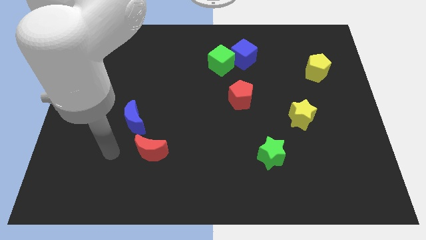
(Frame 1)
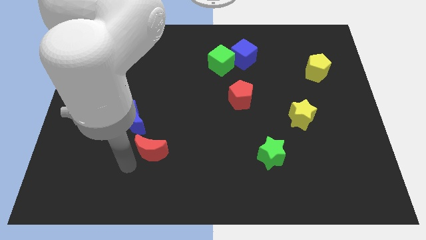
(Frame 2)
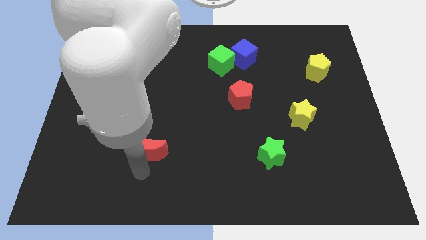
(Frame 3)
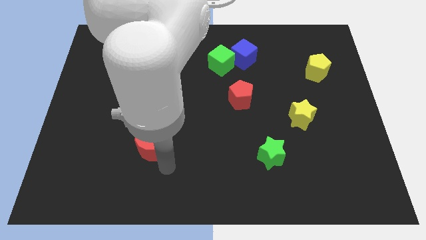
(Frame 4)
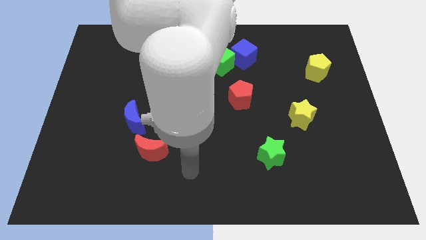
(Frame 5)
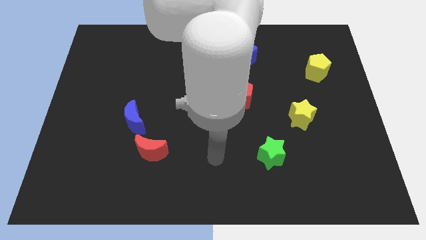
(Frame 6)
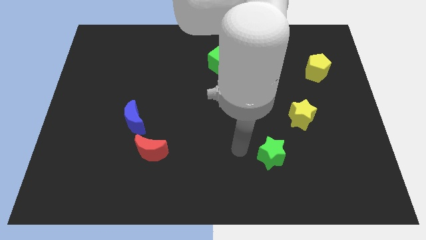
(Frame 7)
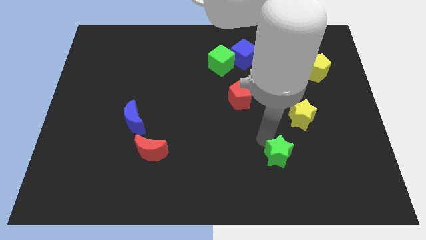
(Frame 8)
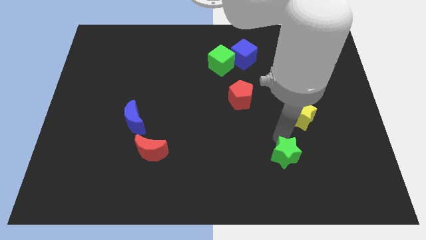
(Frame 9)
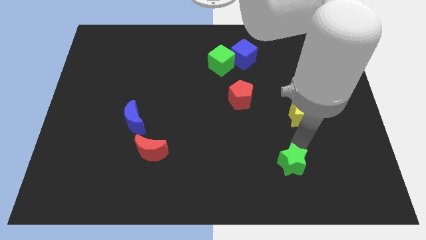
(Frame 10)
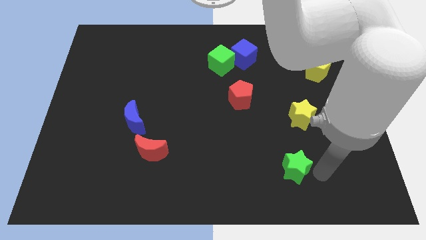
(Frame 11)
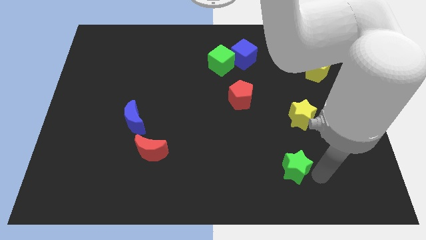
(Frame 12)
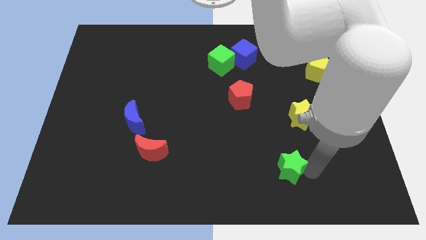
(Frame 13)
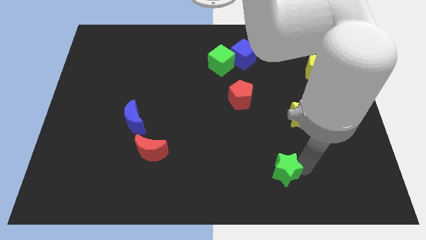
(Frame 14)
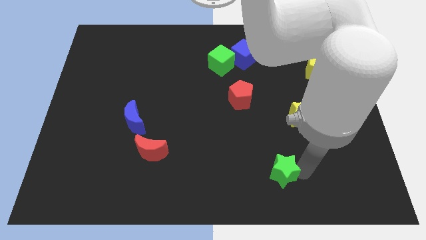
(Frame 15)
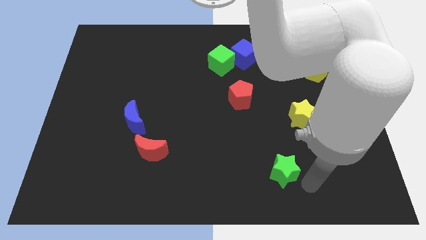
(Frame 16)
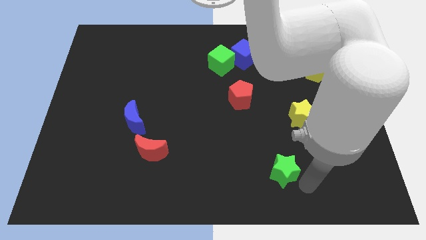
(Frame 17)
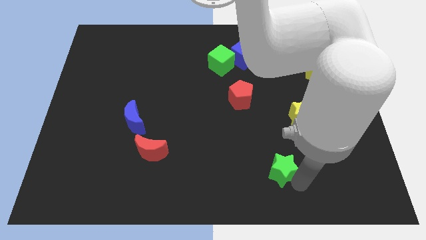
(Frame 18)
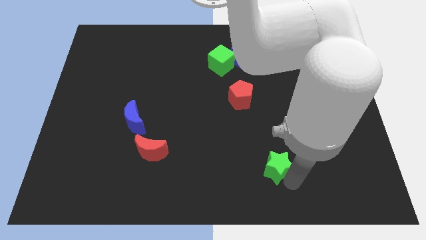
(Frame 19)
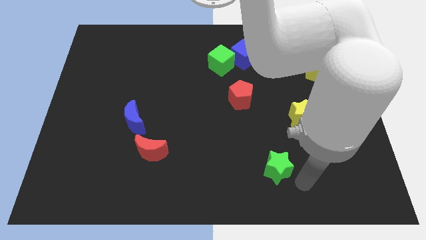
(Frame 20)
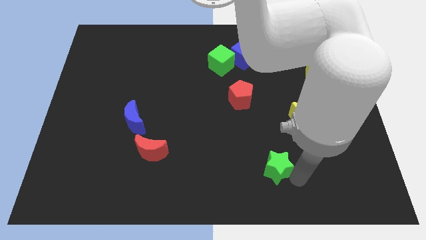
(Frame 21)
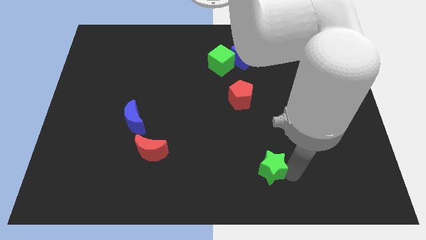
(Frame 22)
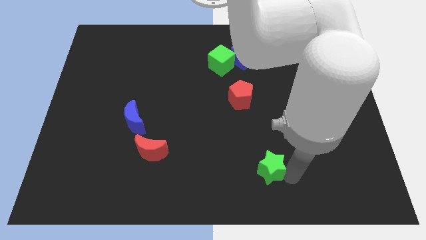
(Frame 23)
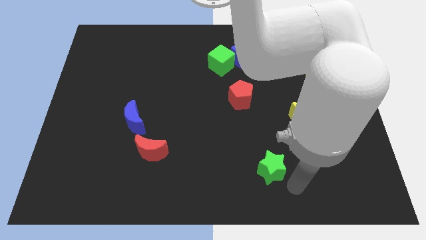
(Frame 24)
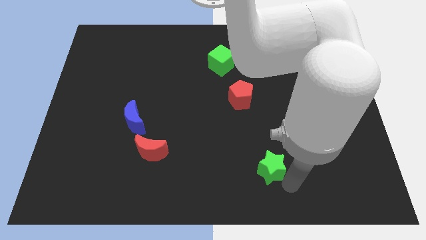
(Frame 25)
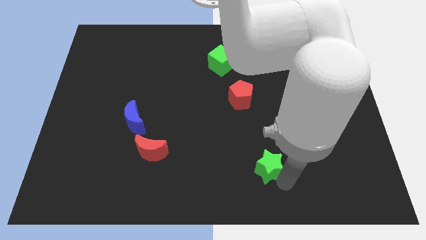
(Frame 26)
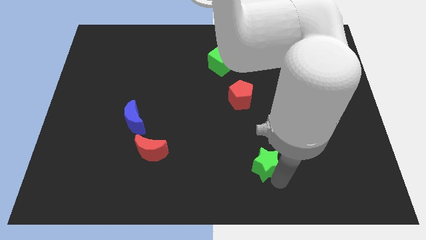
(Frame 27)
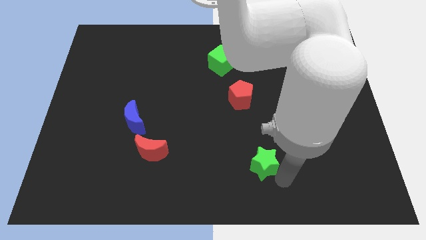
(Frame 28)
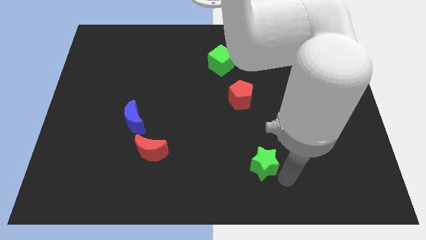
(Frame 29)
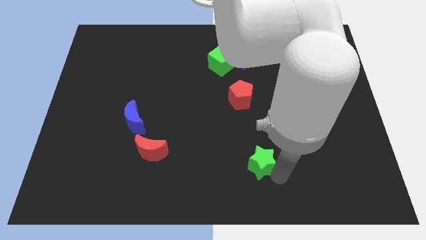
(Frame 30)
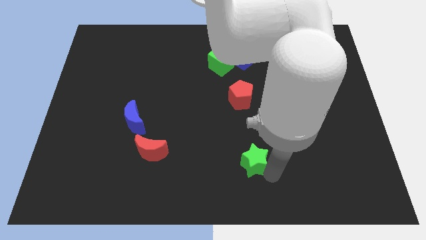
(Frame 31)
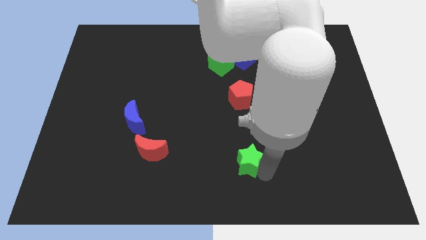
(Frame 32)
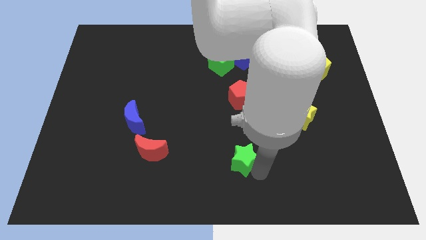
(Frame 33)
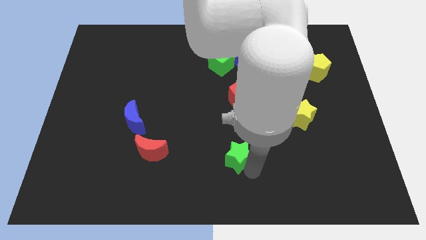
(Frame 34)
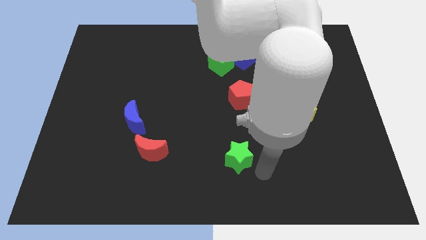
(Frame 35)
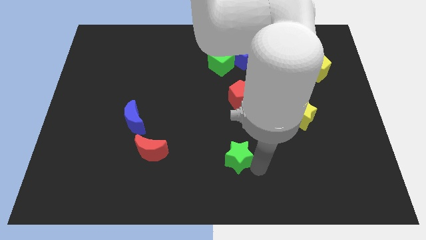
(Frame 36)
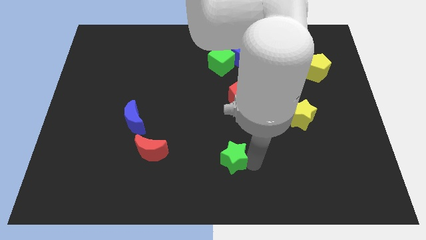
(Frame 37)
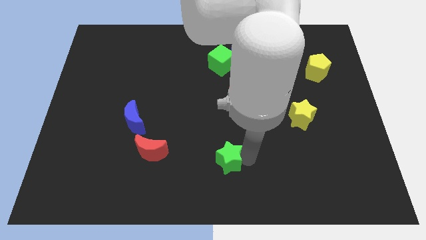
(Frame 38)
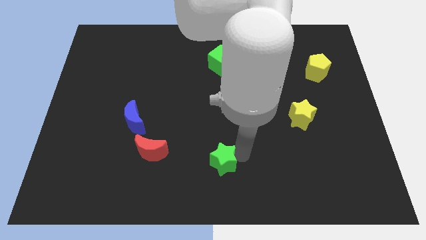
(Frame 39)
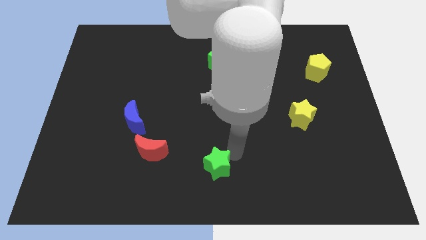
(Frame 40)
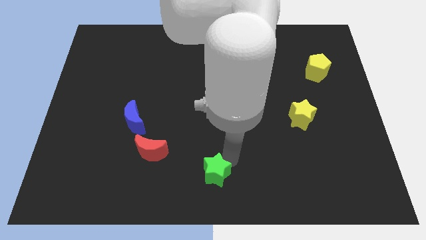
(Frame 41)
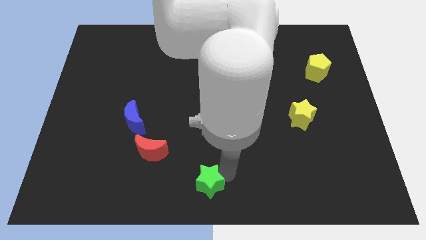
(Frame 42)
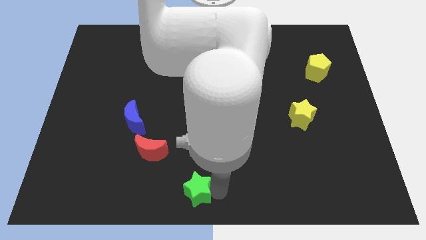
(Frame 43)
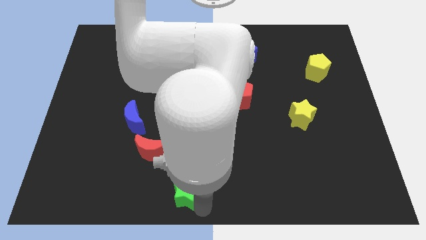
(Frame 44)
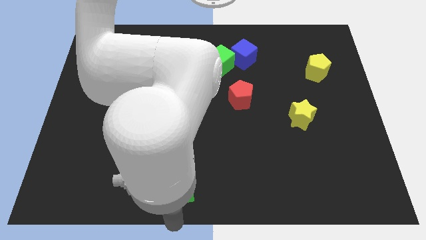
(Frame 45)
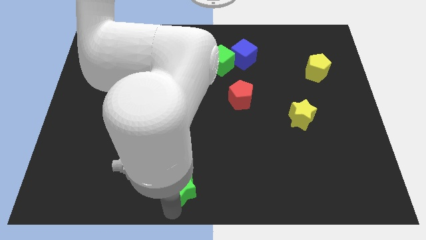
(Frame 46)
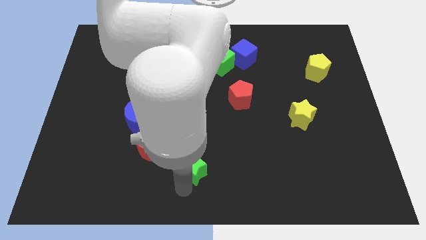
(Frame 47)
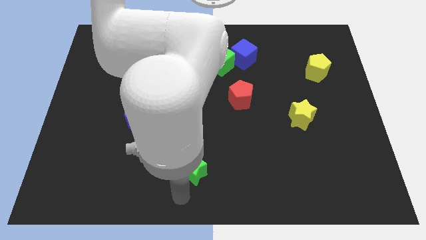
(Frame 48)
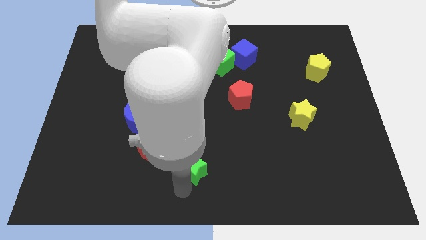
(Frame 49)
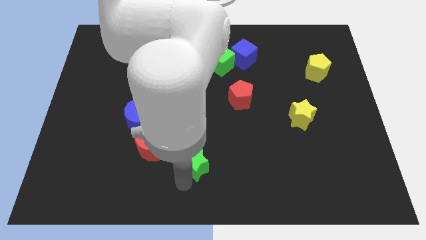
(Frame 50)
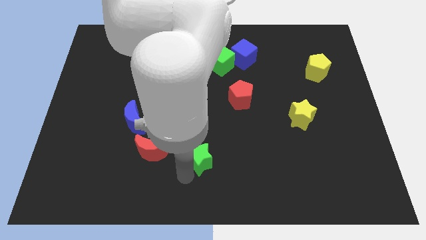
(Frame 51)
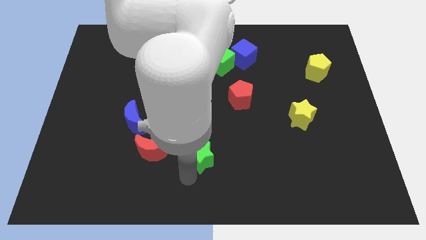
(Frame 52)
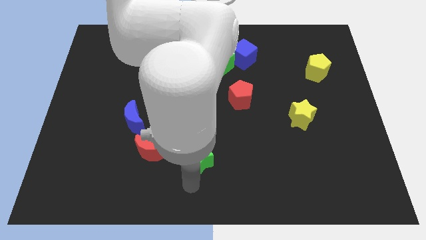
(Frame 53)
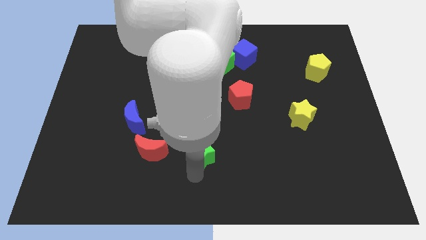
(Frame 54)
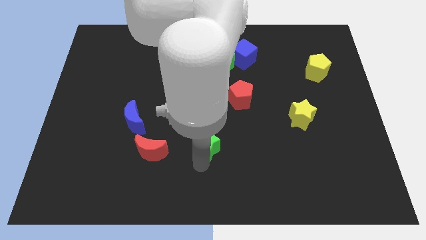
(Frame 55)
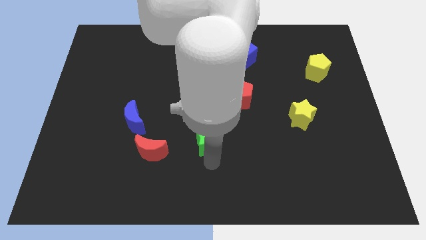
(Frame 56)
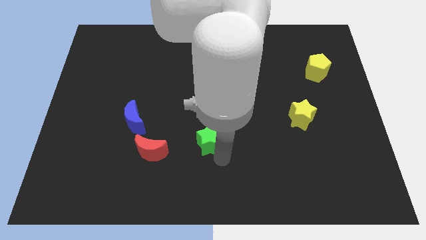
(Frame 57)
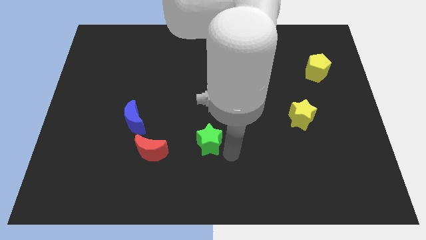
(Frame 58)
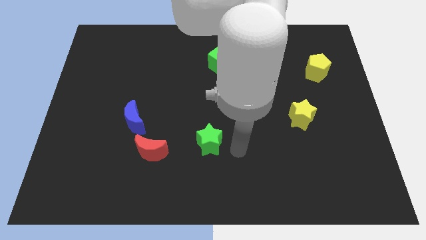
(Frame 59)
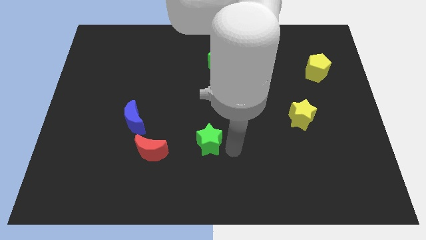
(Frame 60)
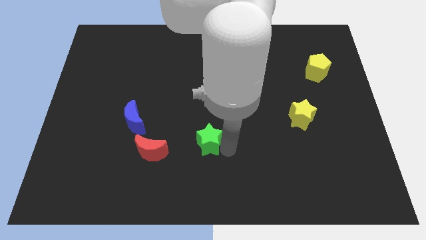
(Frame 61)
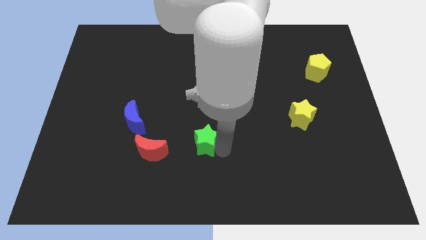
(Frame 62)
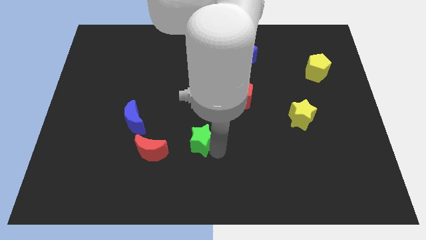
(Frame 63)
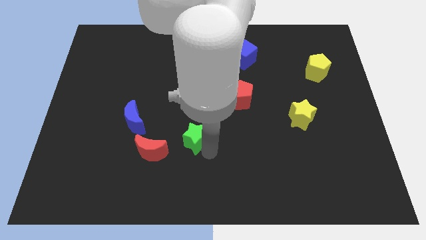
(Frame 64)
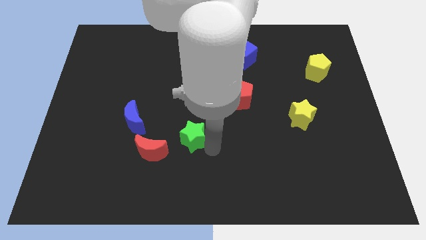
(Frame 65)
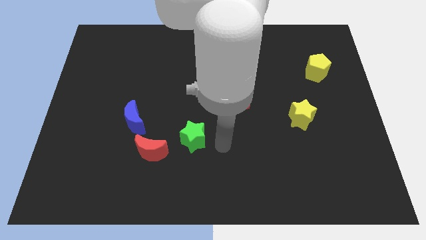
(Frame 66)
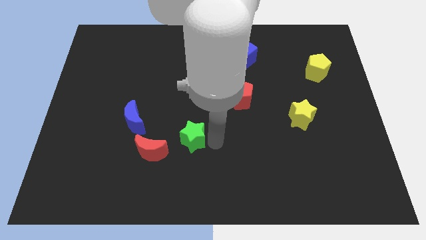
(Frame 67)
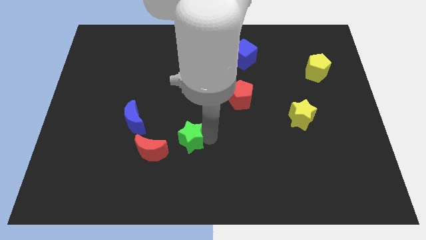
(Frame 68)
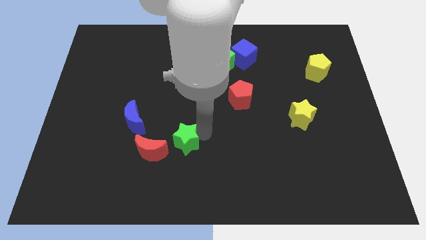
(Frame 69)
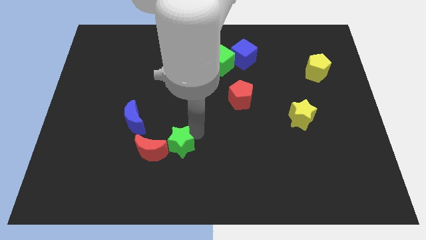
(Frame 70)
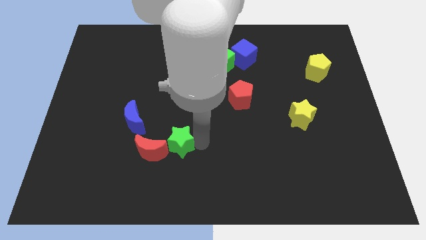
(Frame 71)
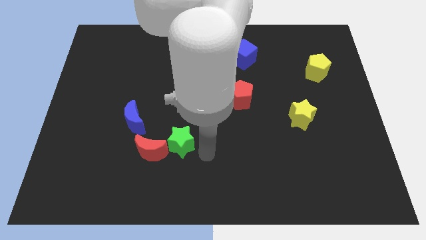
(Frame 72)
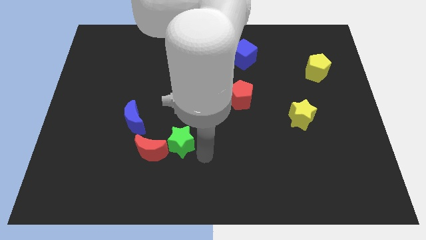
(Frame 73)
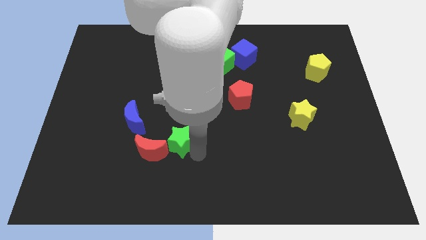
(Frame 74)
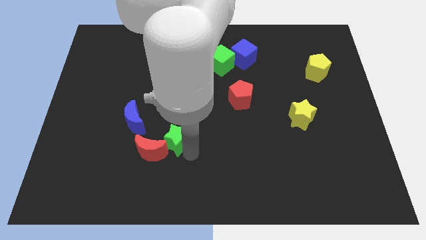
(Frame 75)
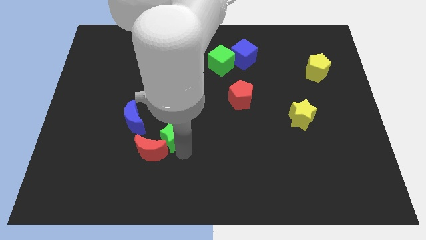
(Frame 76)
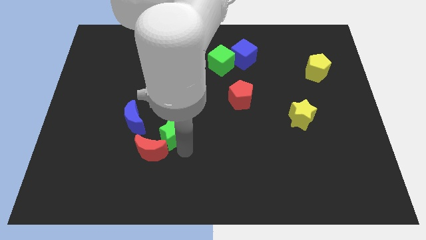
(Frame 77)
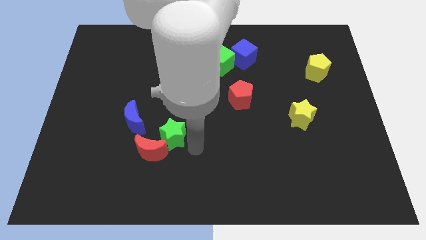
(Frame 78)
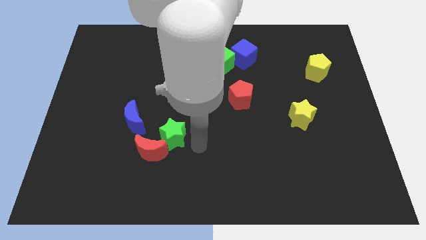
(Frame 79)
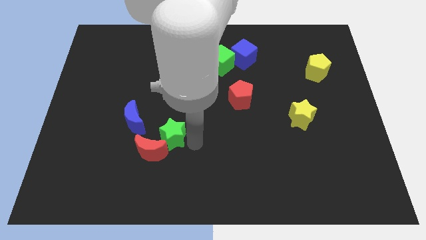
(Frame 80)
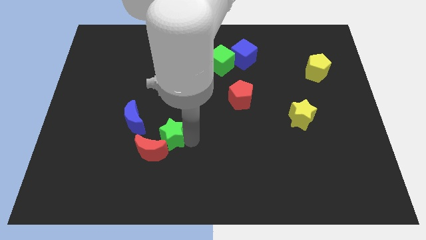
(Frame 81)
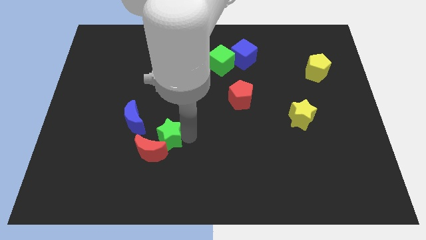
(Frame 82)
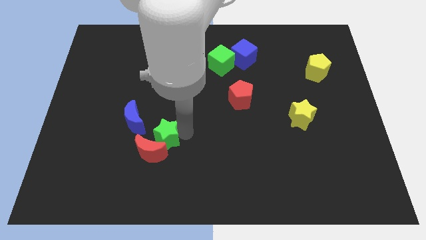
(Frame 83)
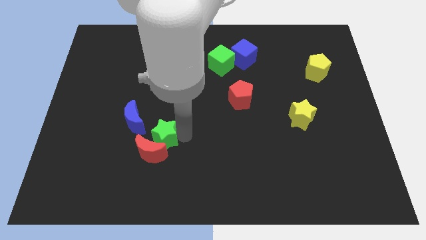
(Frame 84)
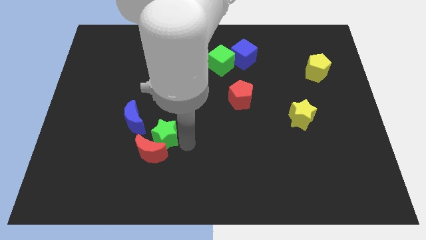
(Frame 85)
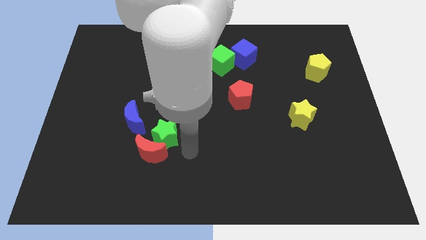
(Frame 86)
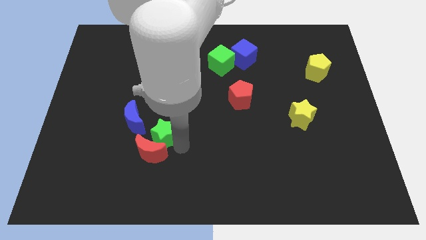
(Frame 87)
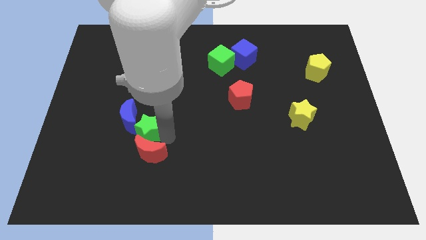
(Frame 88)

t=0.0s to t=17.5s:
push the green star next to the blue moon
